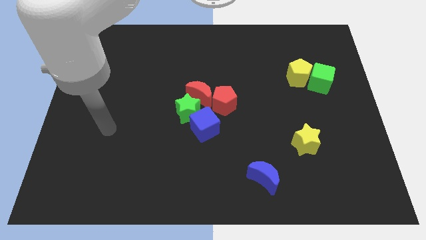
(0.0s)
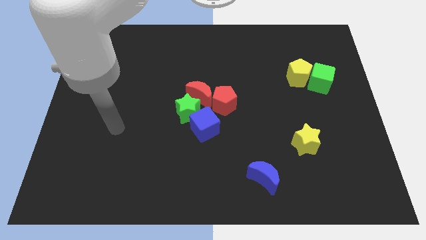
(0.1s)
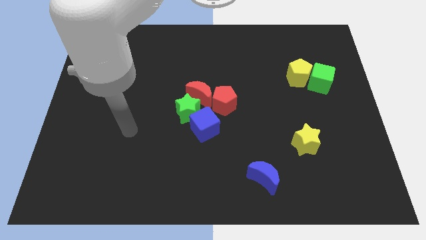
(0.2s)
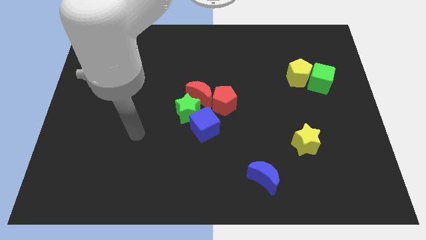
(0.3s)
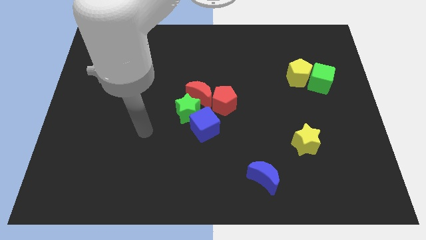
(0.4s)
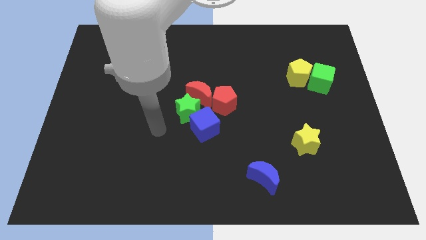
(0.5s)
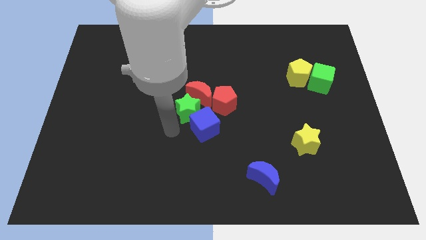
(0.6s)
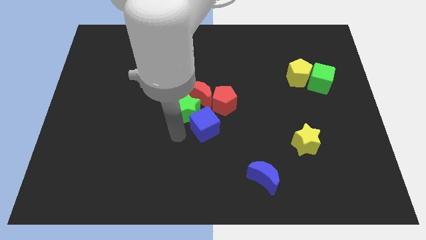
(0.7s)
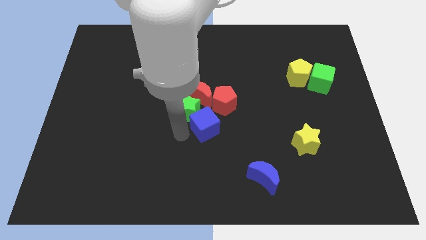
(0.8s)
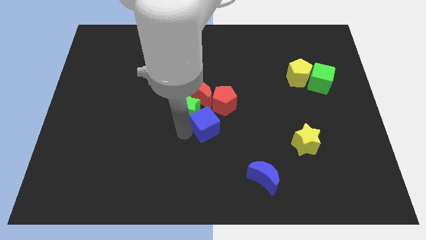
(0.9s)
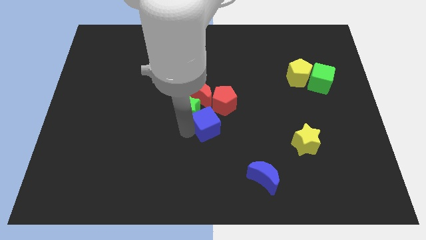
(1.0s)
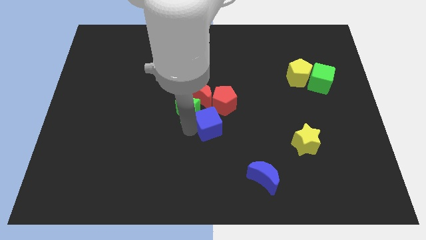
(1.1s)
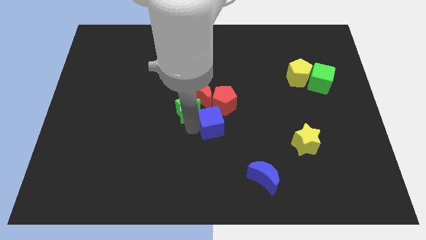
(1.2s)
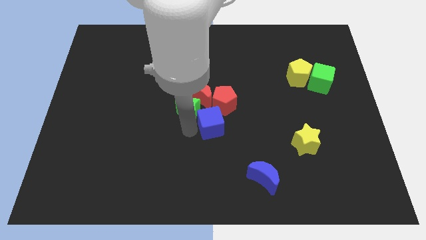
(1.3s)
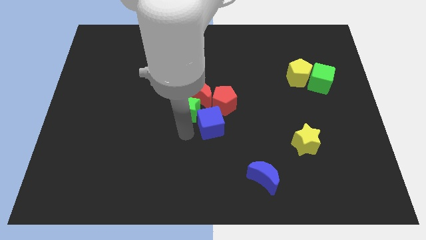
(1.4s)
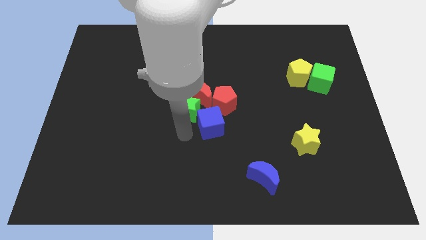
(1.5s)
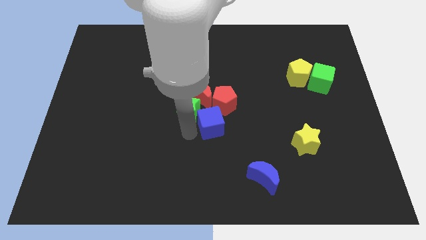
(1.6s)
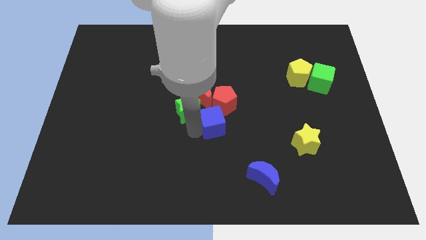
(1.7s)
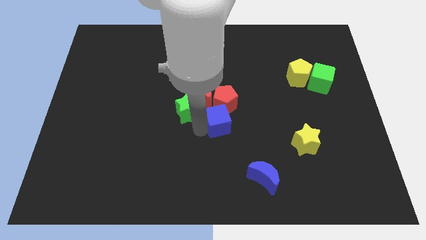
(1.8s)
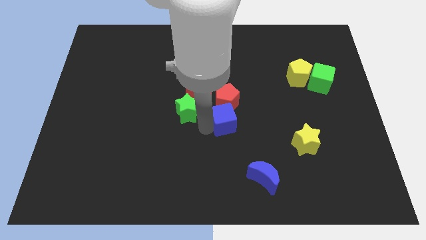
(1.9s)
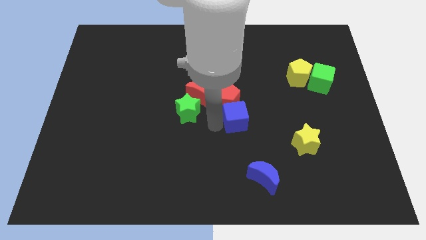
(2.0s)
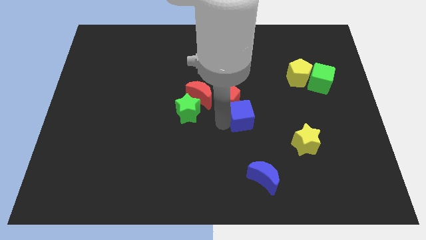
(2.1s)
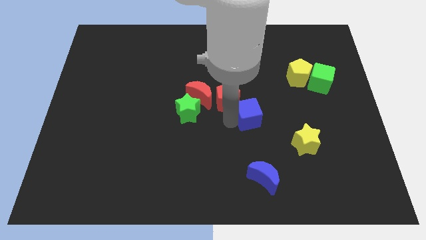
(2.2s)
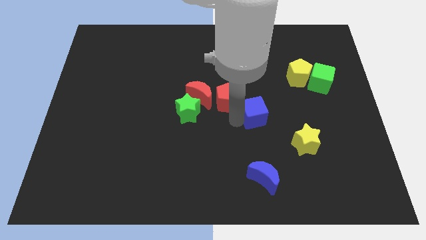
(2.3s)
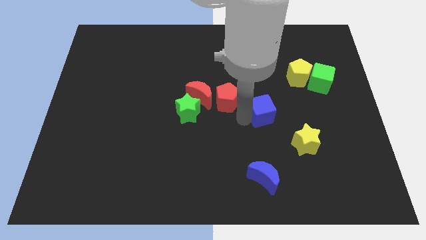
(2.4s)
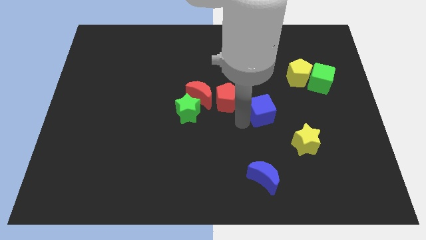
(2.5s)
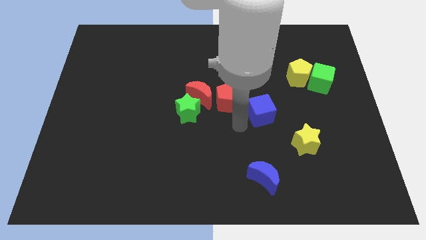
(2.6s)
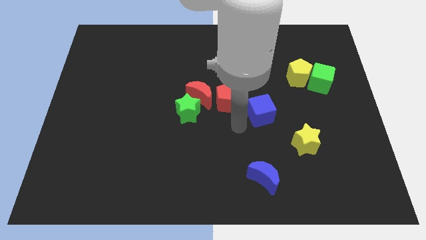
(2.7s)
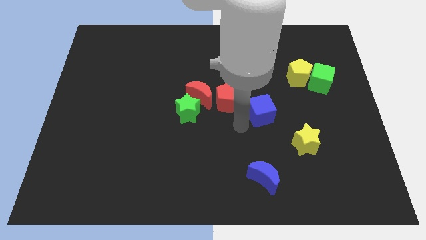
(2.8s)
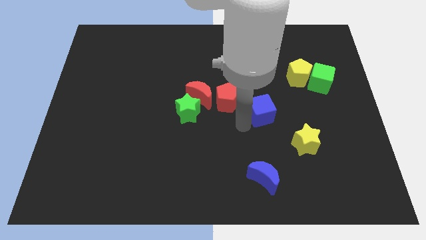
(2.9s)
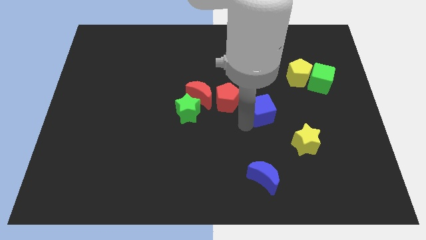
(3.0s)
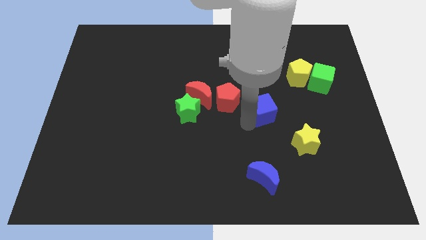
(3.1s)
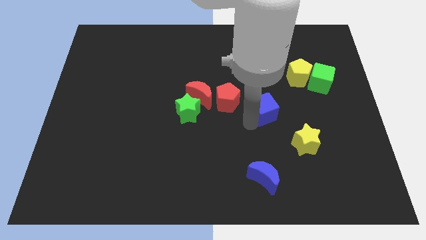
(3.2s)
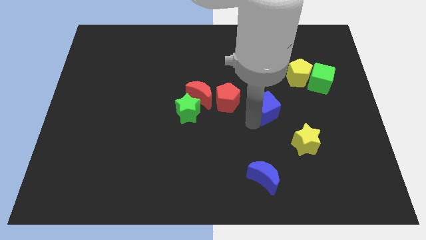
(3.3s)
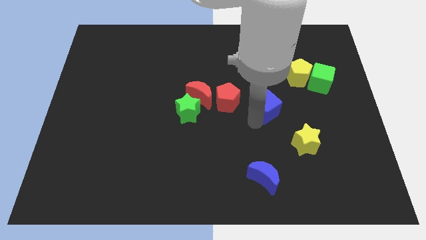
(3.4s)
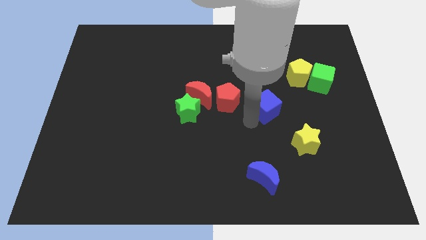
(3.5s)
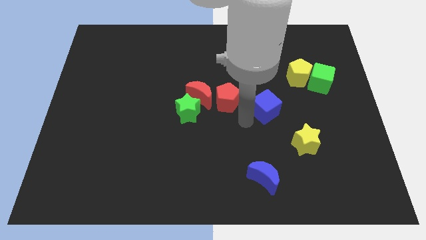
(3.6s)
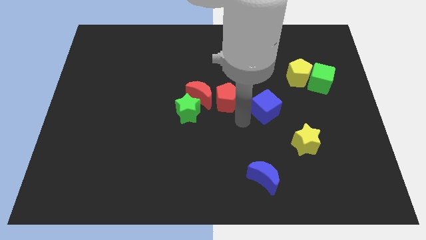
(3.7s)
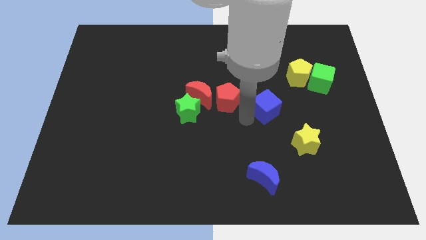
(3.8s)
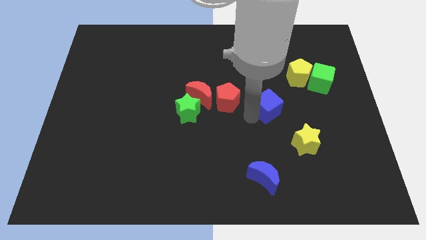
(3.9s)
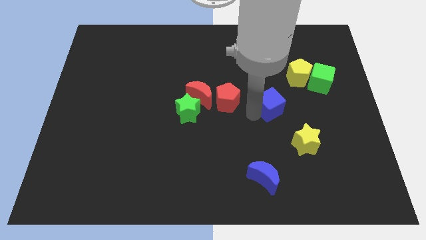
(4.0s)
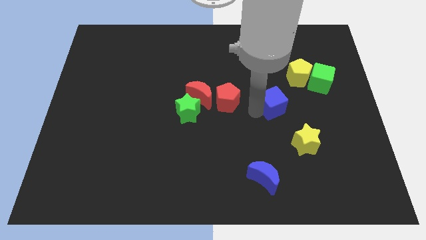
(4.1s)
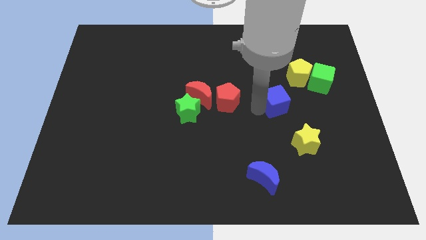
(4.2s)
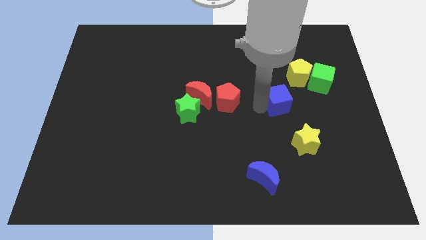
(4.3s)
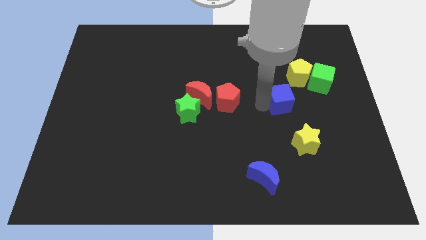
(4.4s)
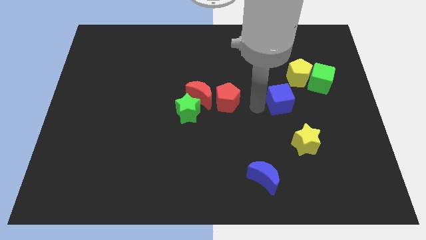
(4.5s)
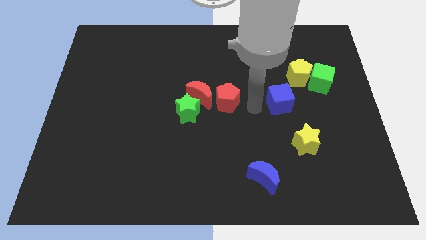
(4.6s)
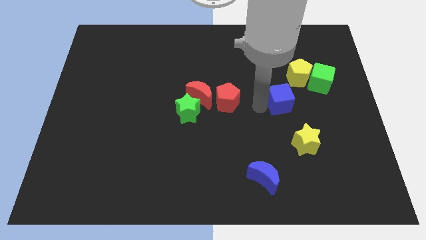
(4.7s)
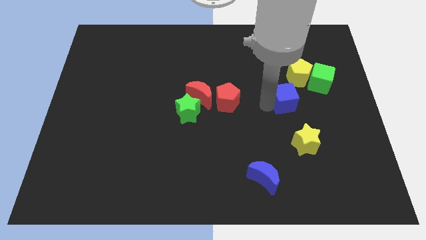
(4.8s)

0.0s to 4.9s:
move the blue cube to the bottom left side of the green cube

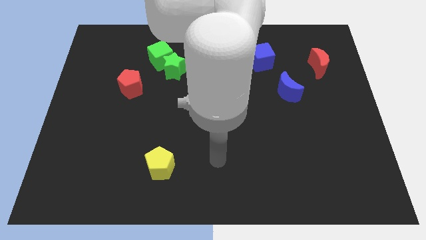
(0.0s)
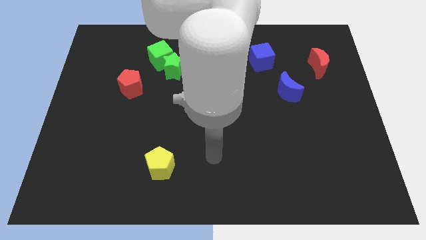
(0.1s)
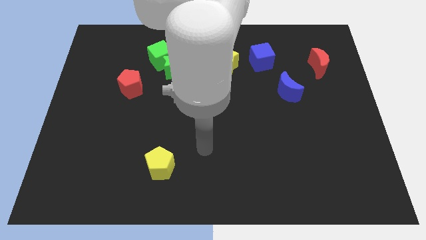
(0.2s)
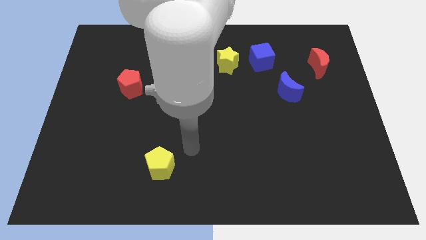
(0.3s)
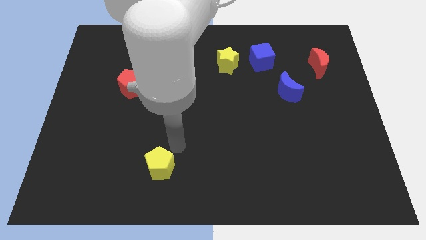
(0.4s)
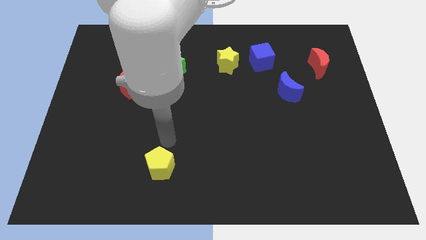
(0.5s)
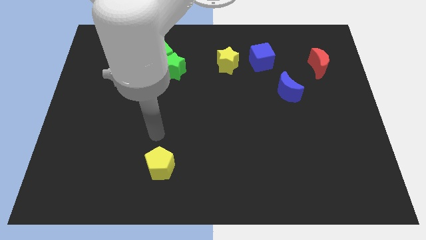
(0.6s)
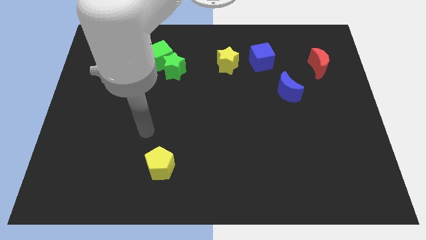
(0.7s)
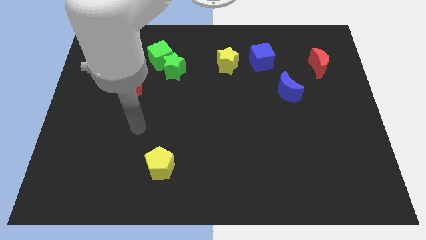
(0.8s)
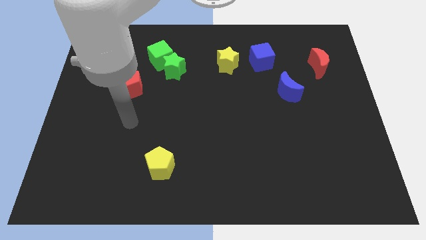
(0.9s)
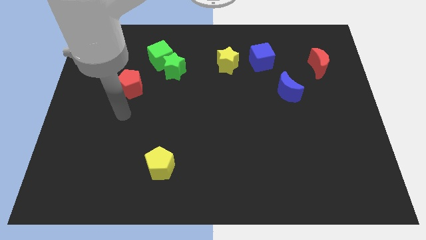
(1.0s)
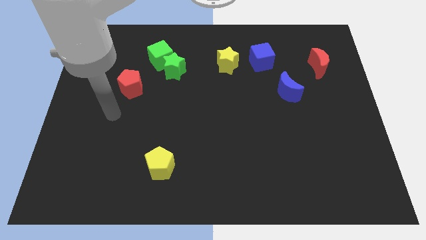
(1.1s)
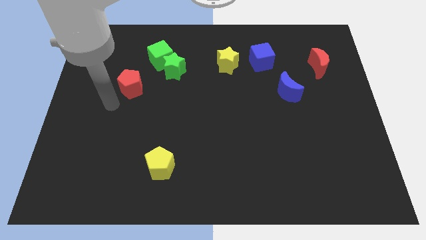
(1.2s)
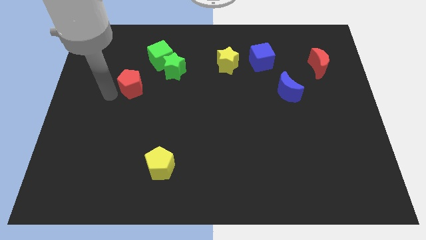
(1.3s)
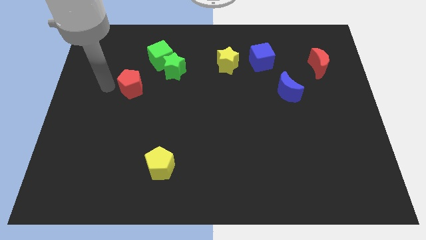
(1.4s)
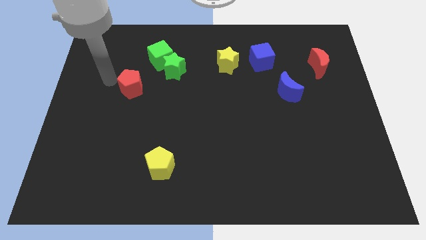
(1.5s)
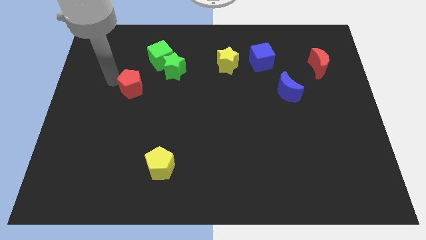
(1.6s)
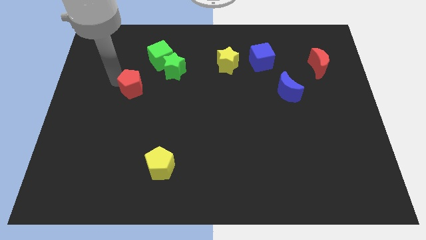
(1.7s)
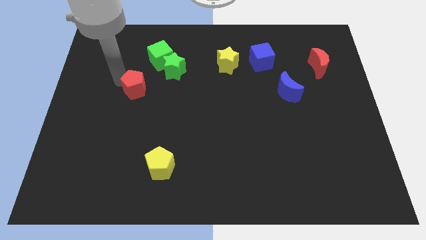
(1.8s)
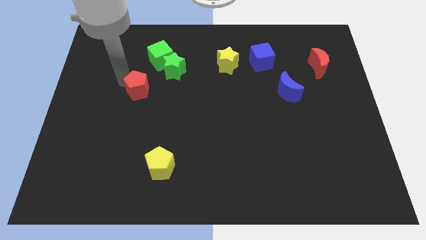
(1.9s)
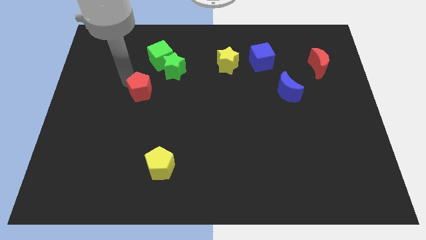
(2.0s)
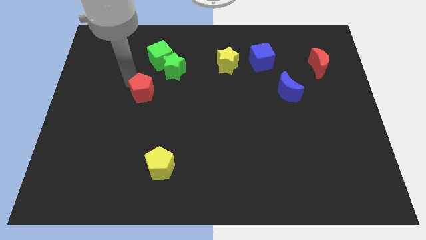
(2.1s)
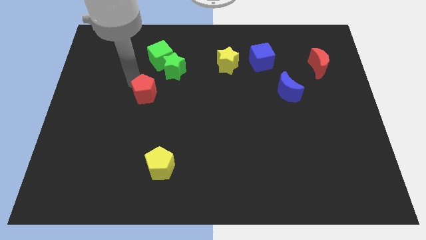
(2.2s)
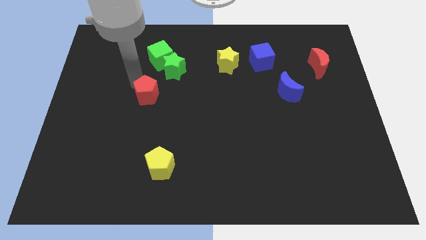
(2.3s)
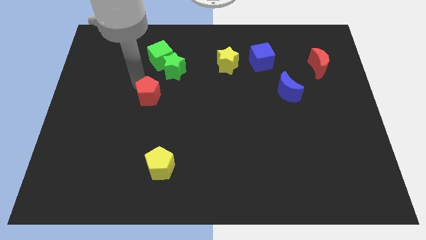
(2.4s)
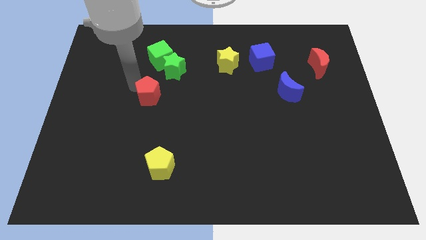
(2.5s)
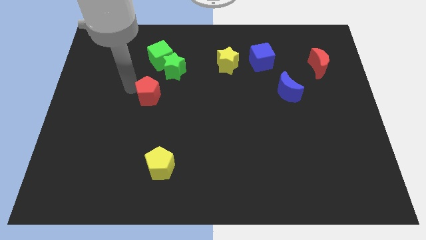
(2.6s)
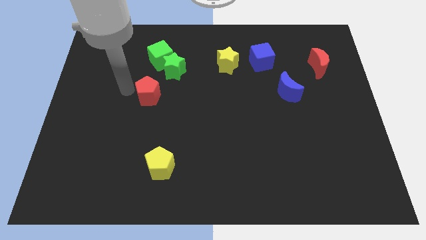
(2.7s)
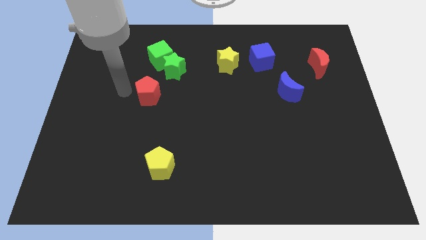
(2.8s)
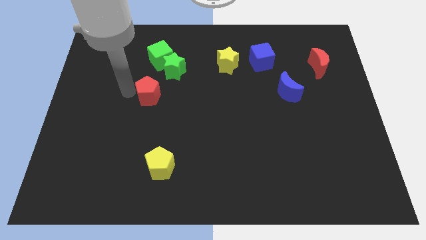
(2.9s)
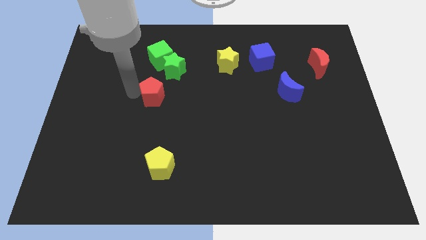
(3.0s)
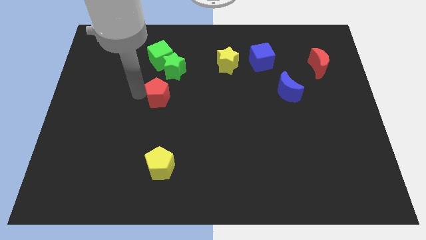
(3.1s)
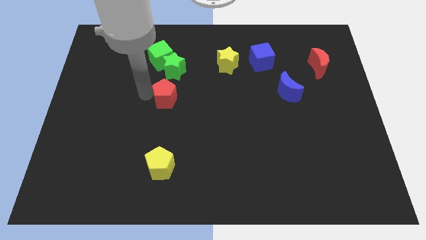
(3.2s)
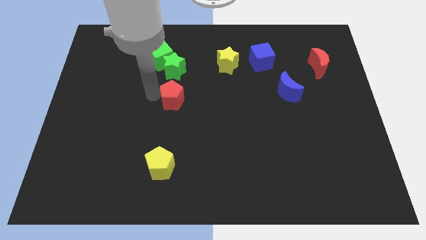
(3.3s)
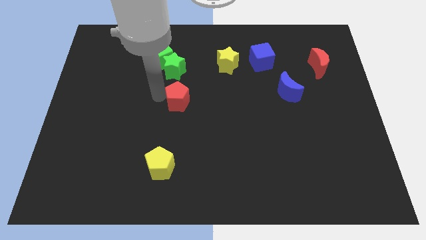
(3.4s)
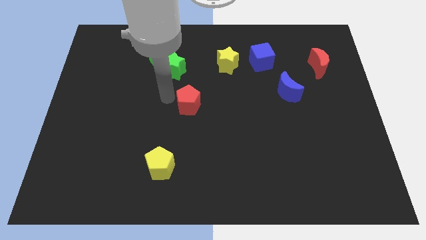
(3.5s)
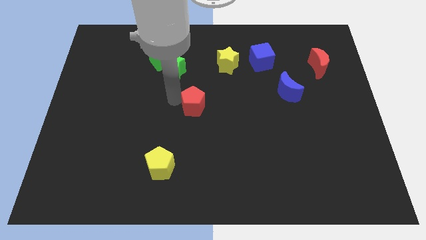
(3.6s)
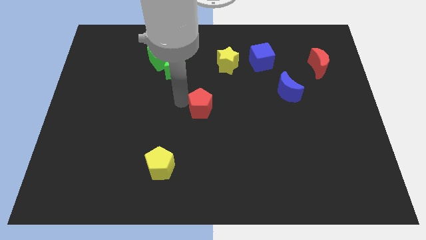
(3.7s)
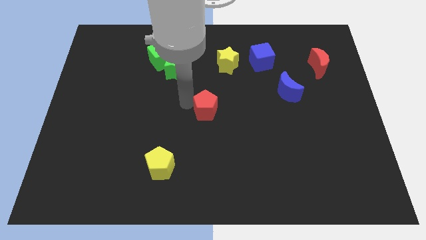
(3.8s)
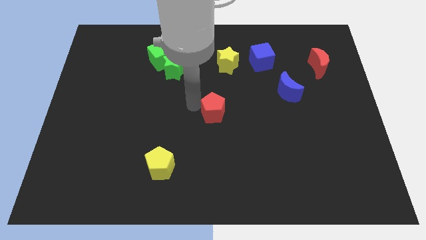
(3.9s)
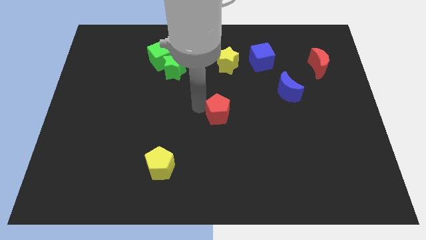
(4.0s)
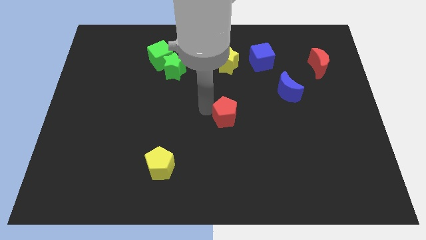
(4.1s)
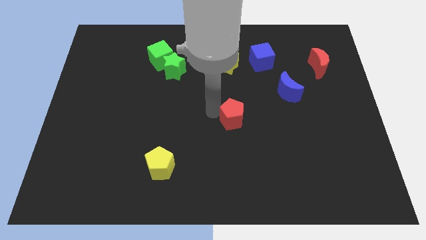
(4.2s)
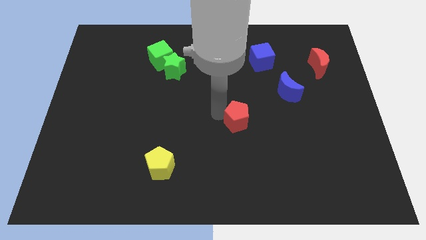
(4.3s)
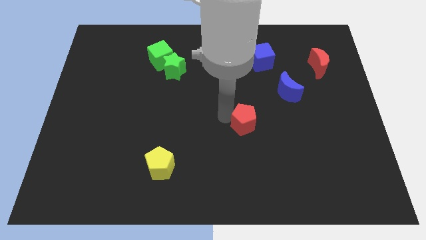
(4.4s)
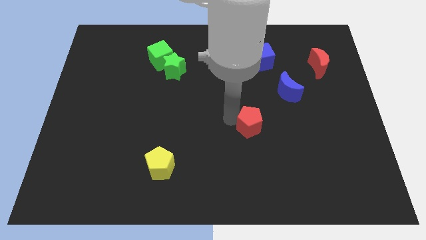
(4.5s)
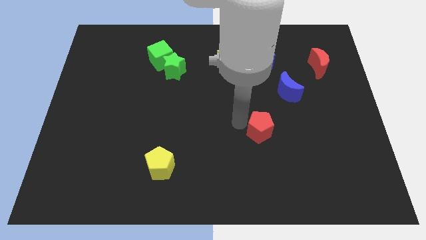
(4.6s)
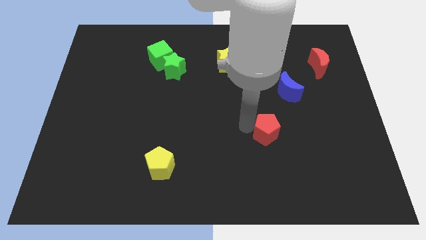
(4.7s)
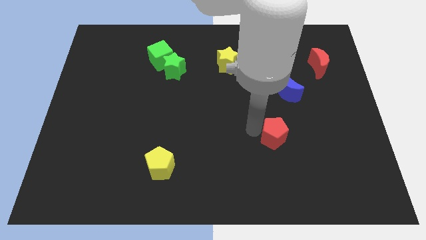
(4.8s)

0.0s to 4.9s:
move the red pentagon to the bottom side of the blue moon
